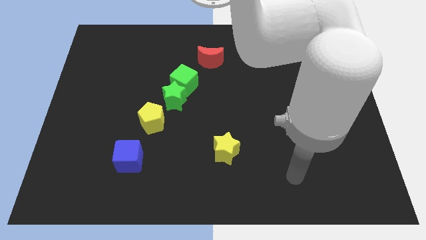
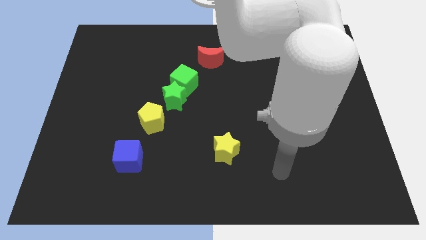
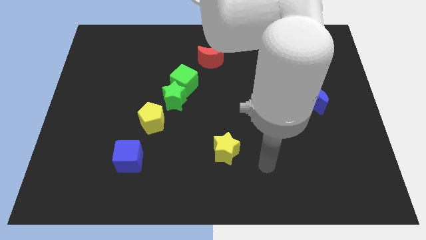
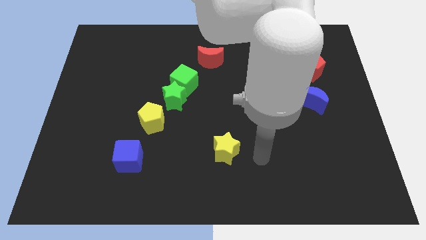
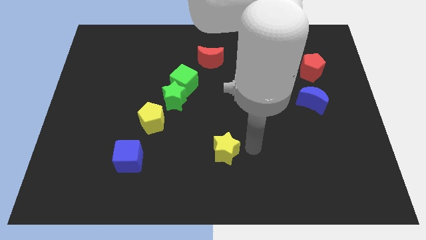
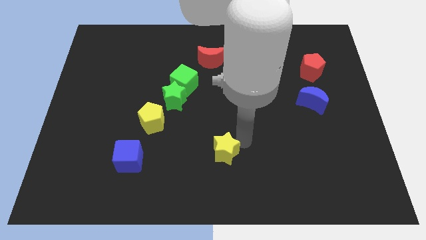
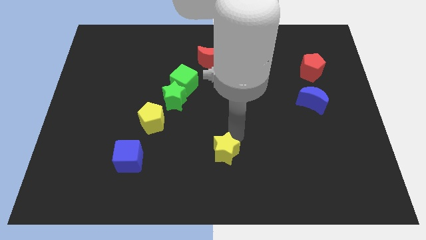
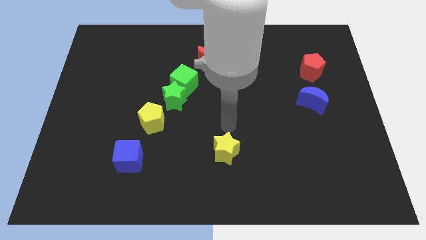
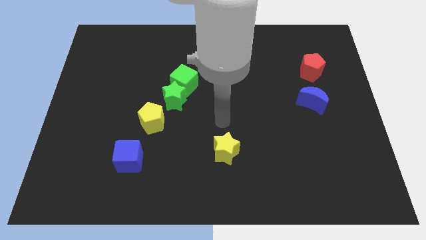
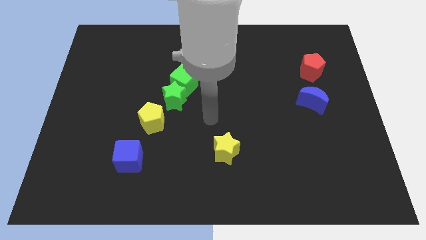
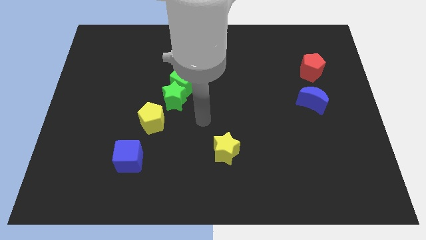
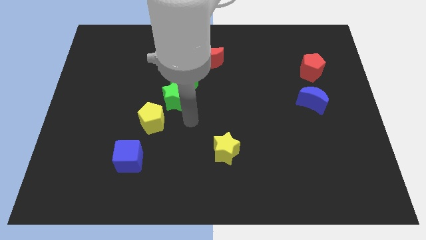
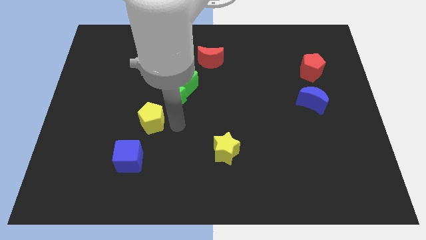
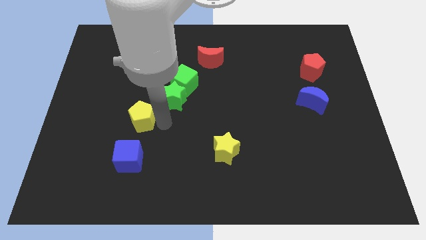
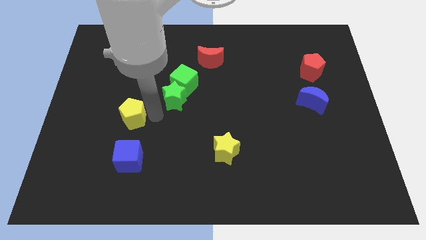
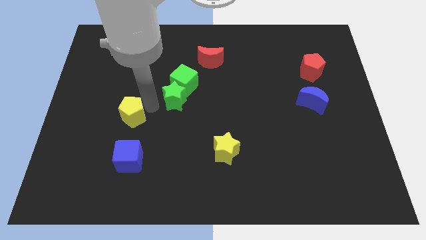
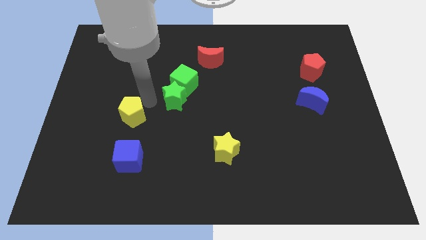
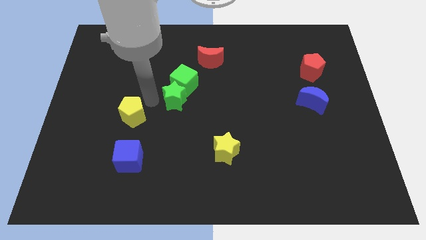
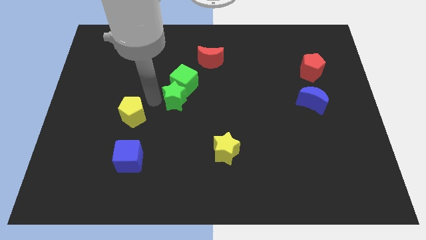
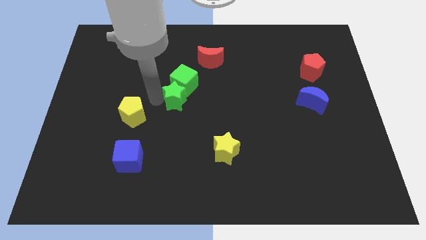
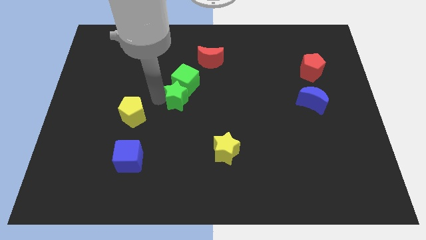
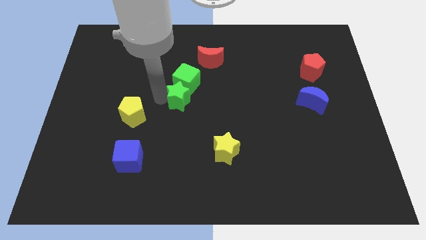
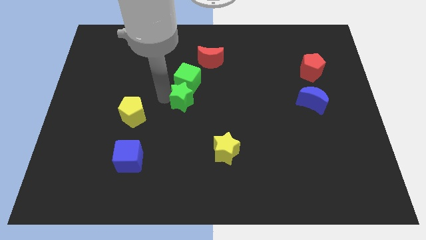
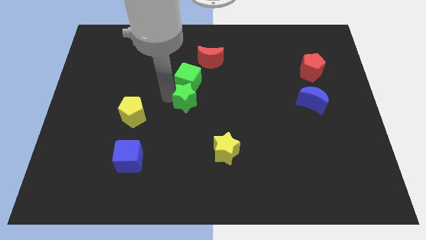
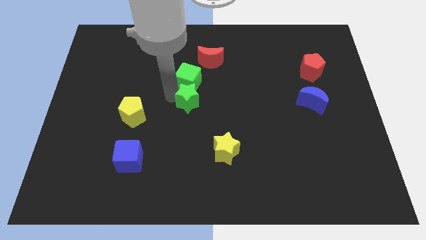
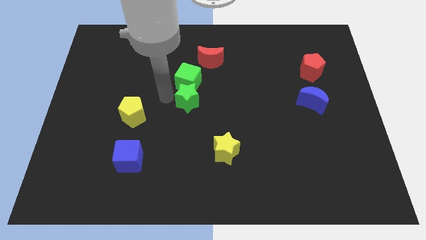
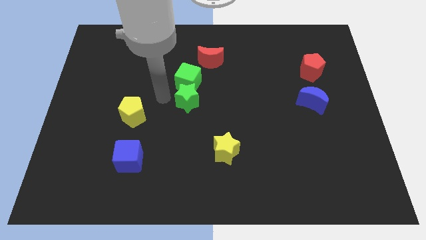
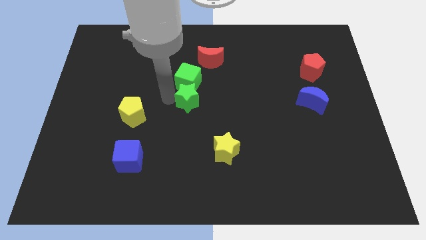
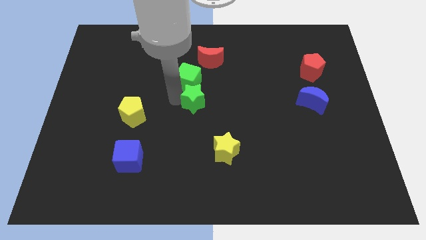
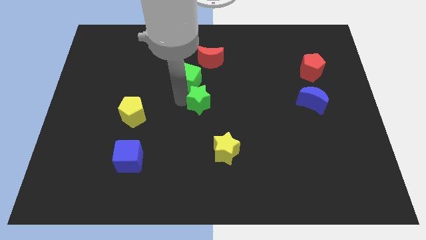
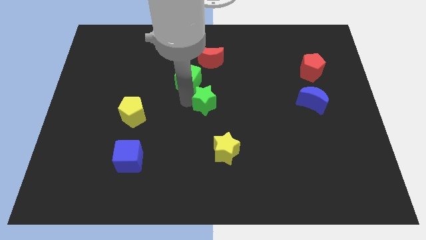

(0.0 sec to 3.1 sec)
separate the green star from the green cube and yellow pentagon

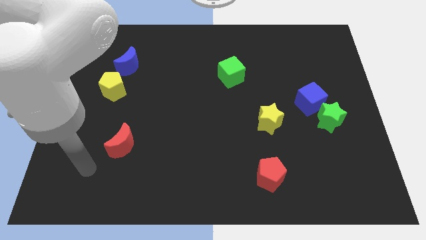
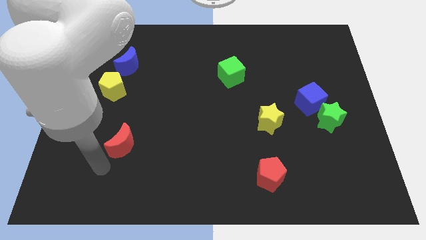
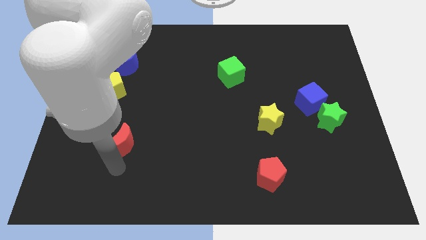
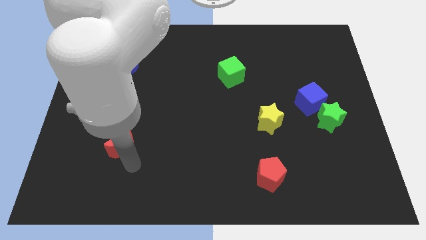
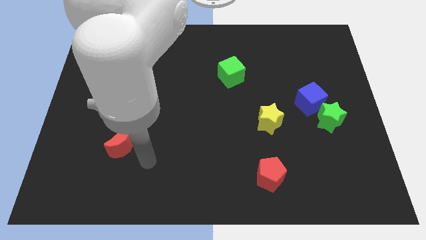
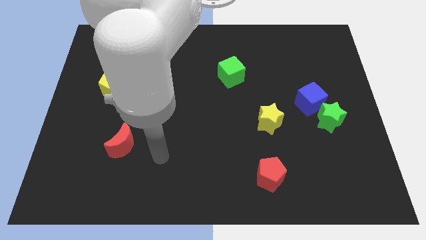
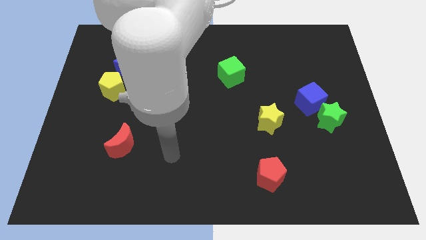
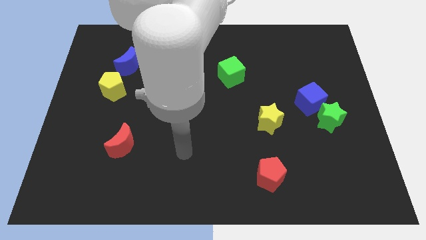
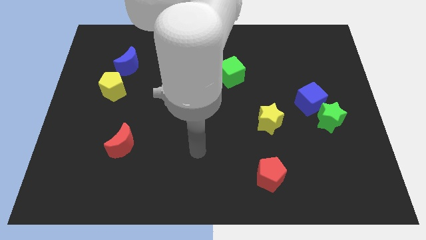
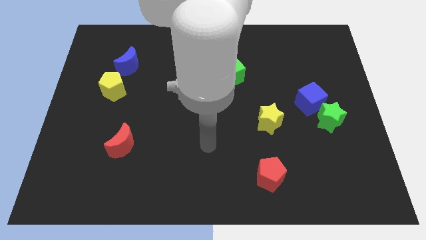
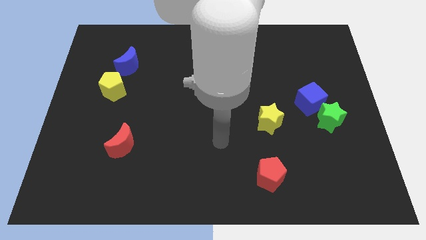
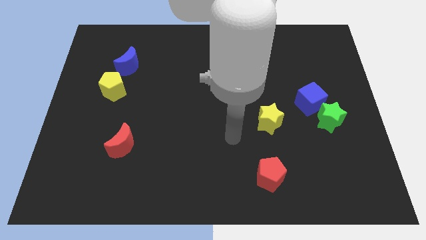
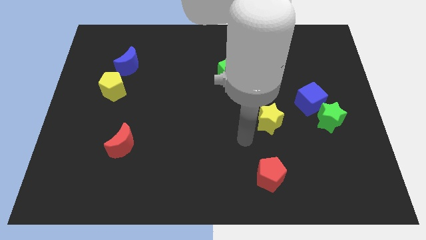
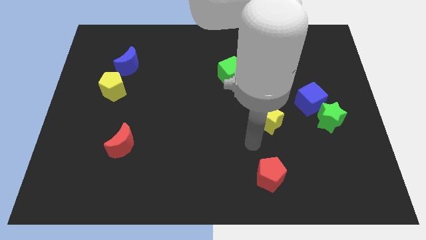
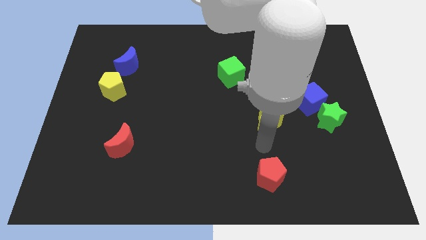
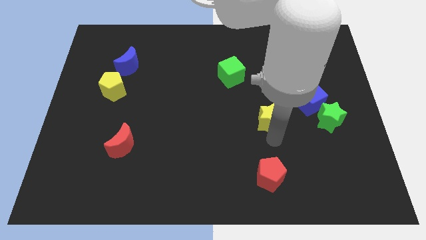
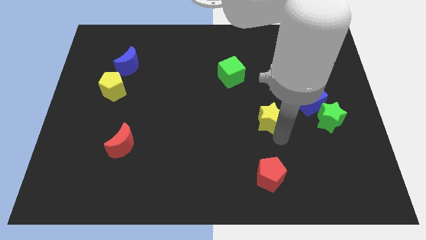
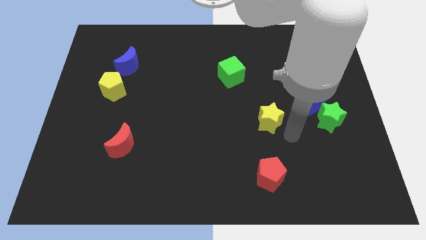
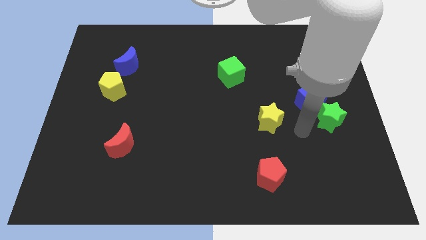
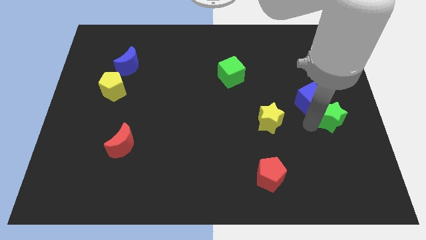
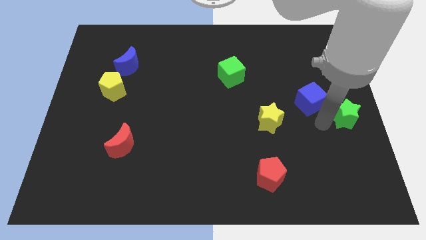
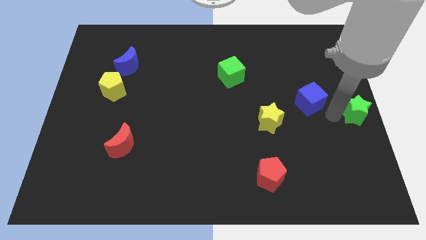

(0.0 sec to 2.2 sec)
separate the blue cube from the green star

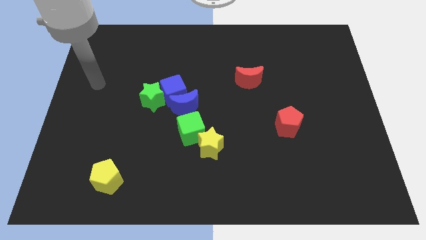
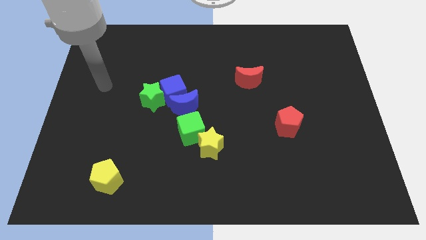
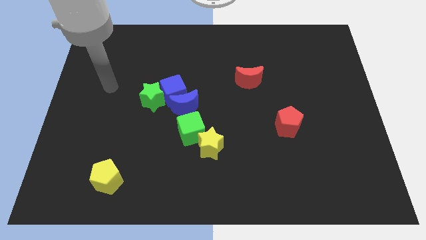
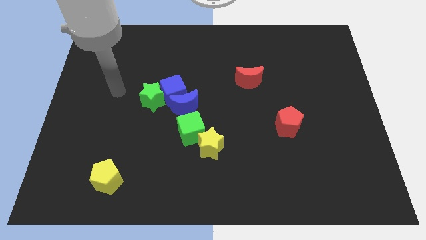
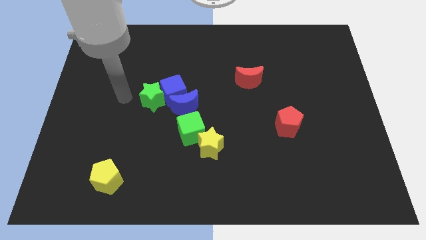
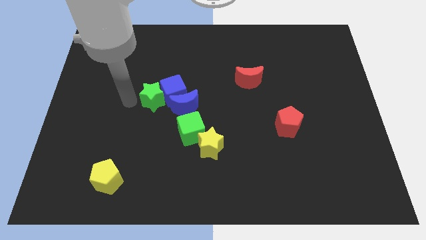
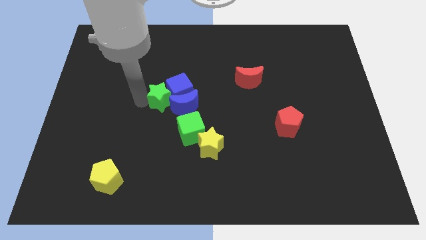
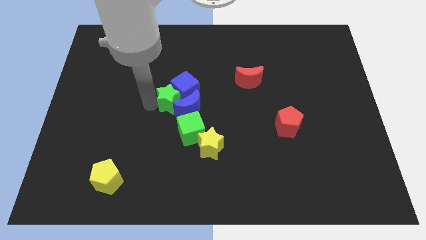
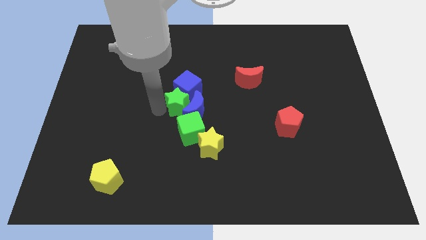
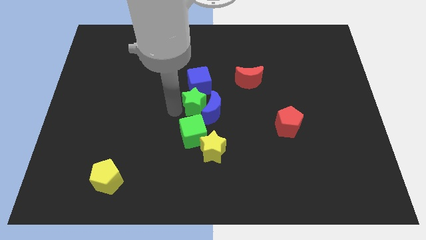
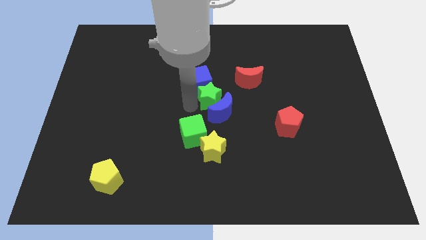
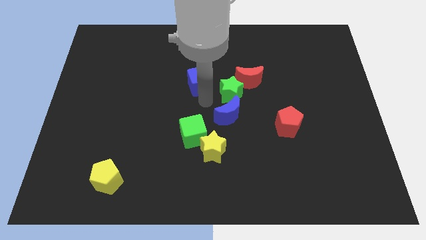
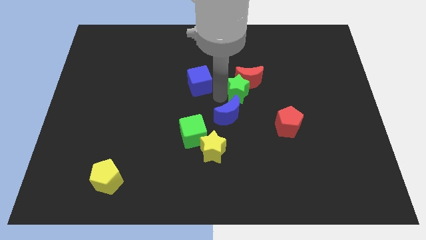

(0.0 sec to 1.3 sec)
pull the blue cube apart from the blue moon and green star

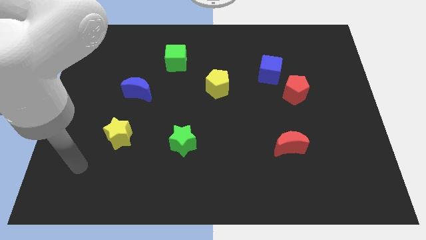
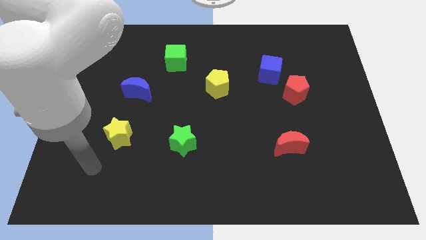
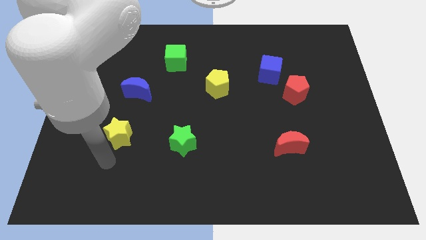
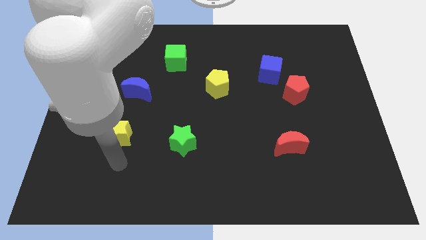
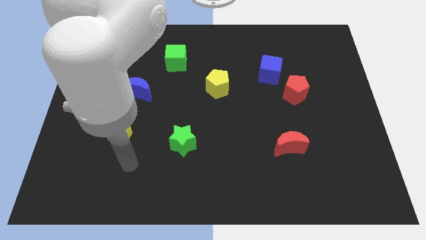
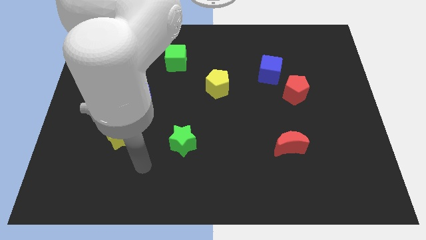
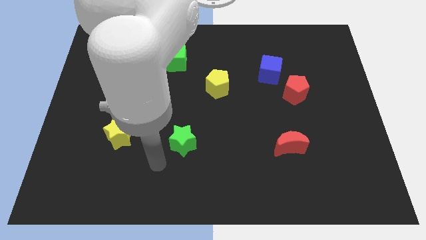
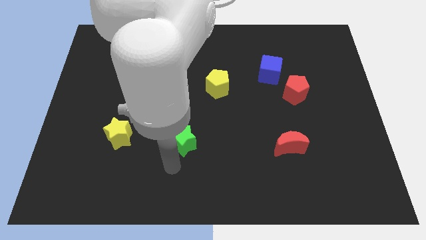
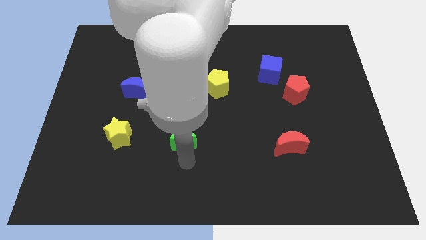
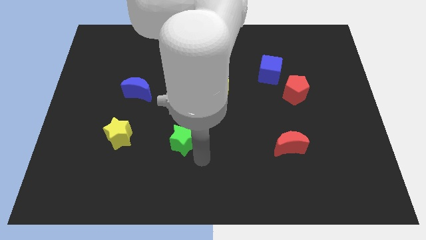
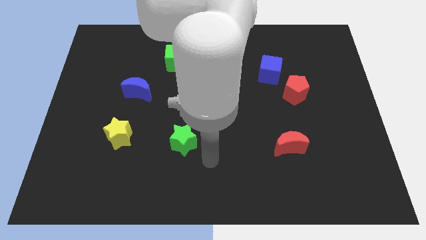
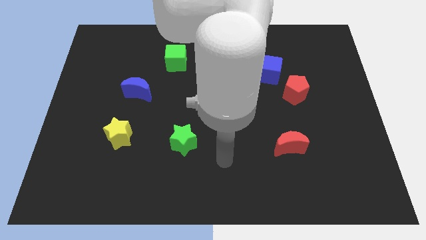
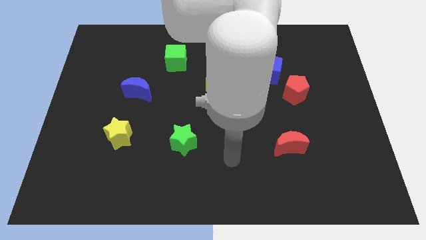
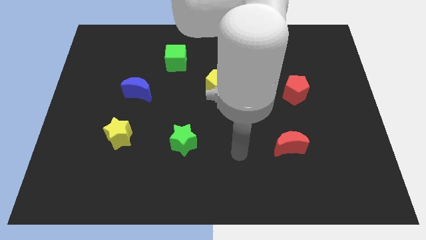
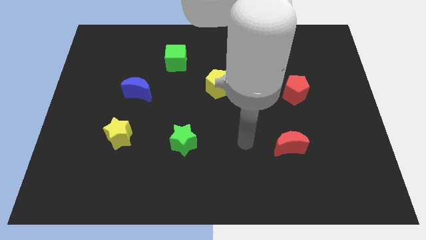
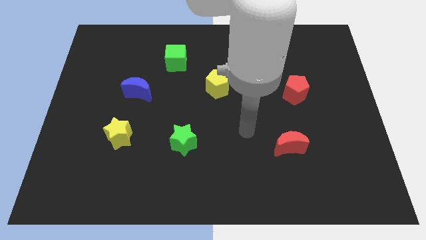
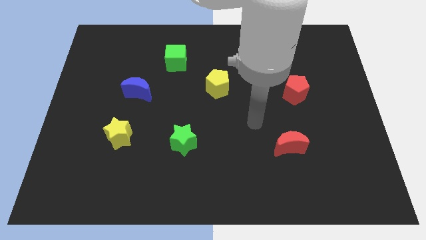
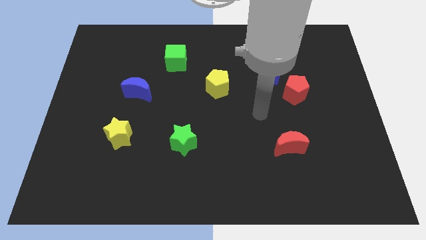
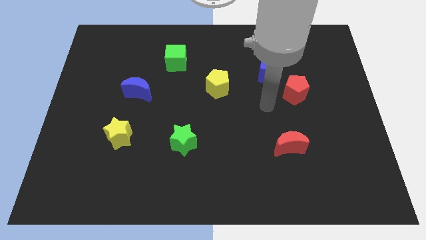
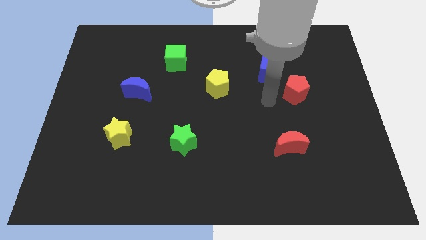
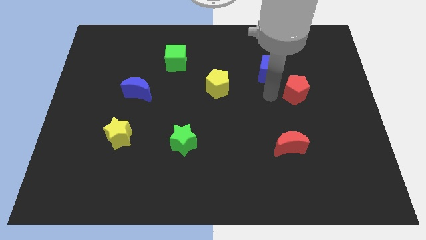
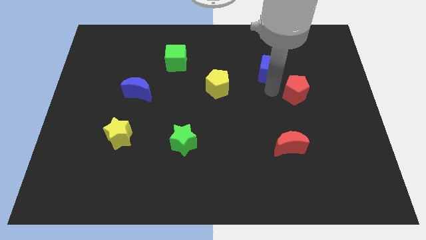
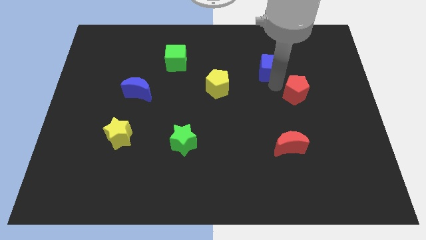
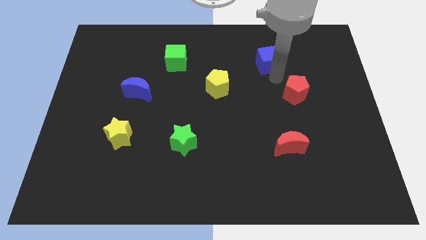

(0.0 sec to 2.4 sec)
separate the red pentagon from the blue cube

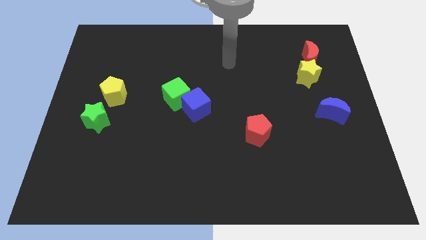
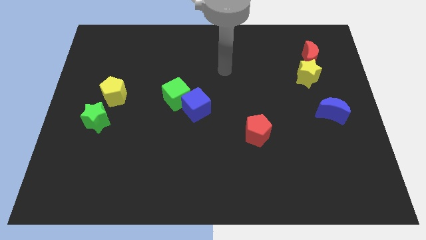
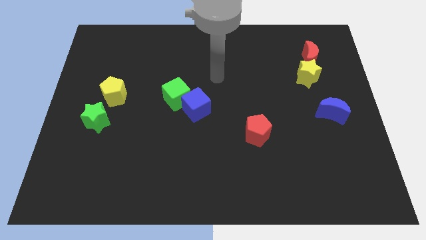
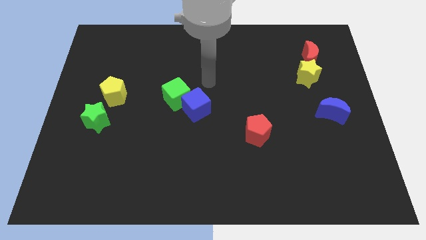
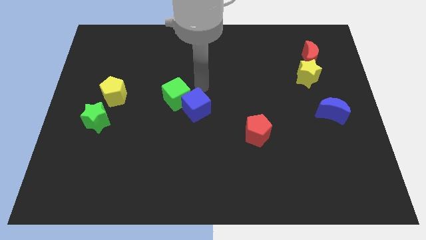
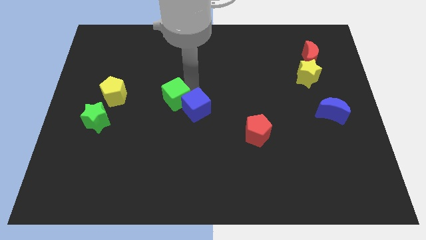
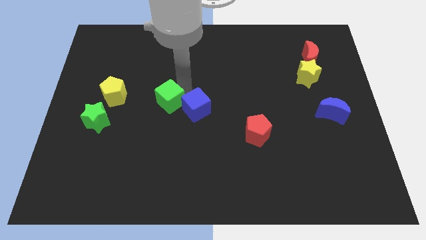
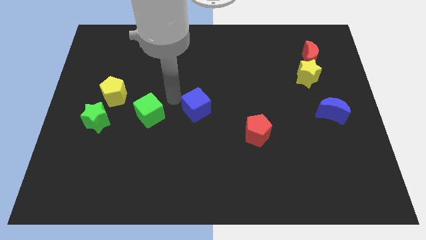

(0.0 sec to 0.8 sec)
separate the blue cube from the green cube
